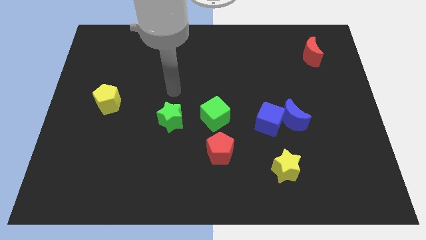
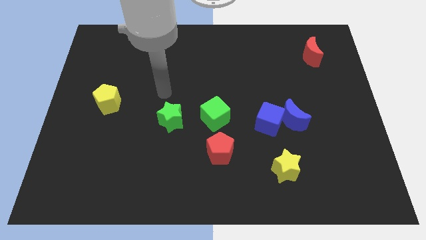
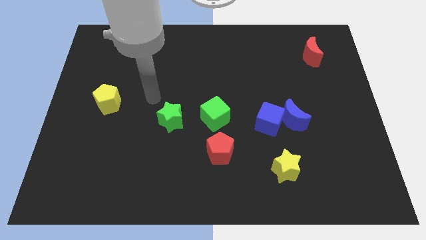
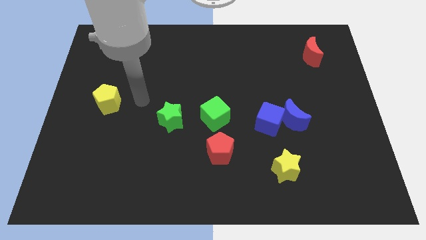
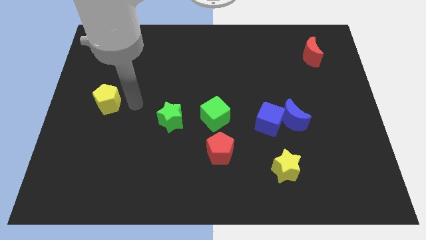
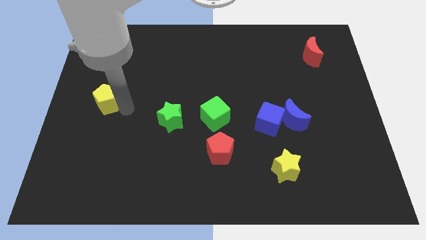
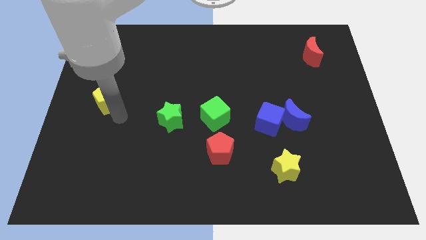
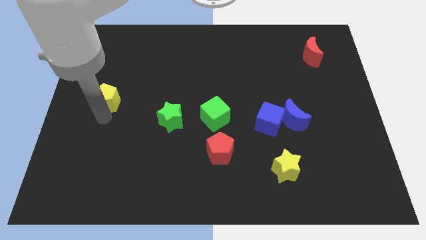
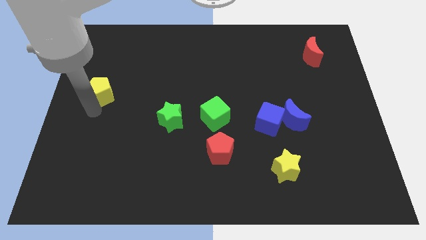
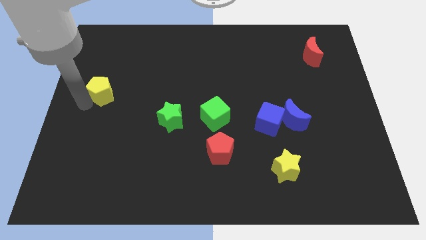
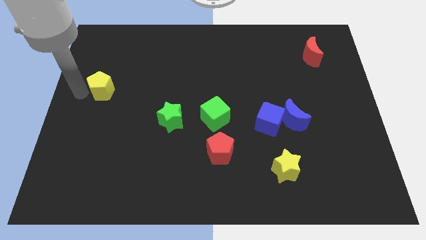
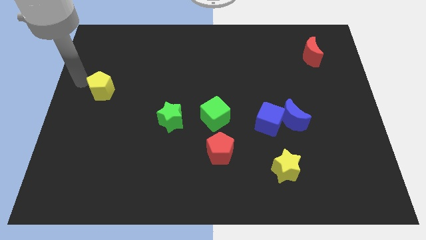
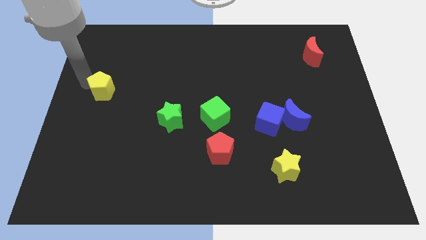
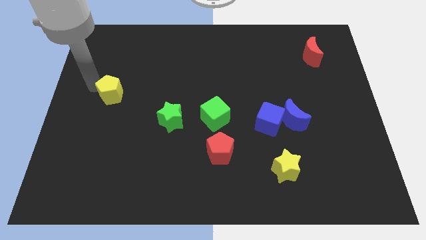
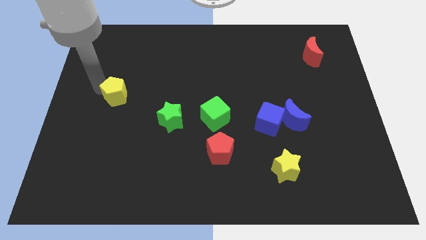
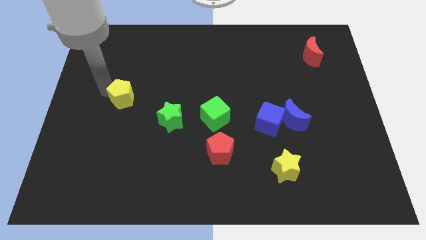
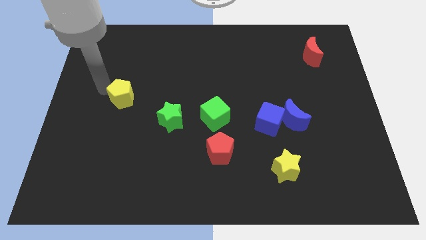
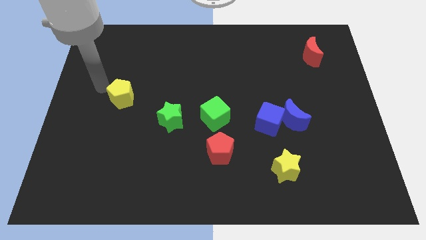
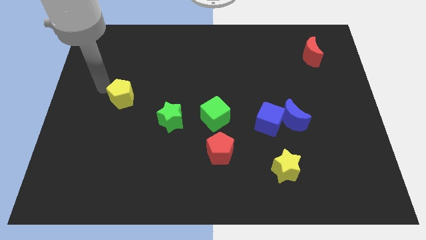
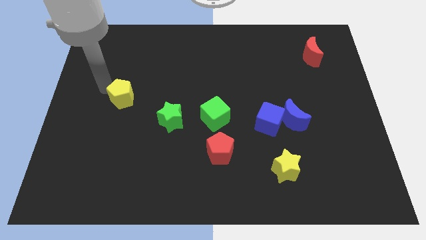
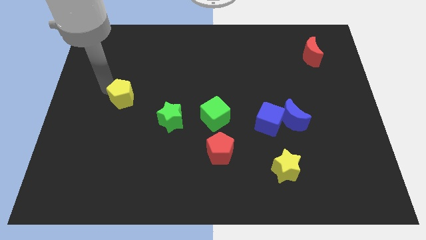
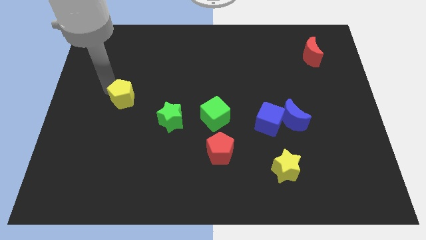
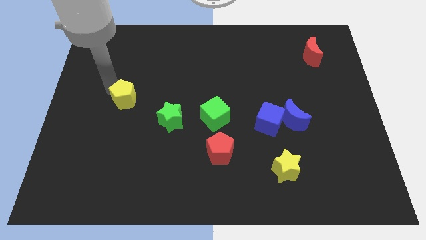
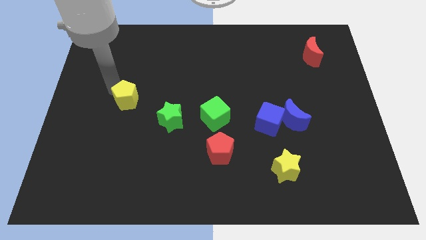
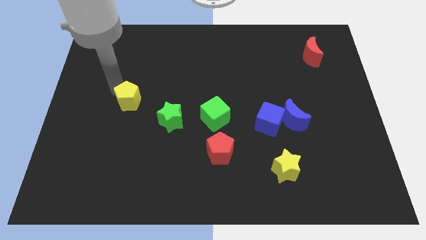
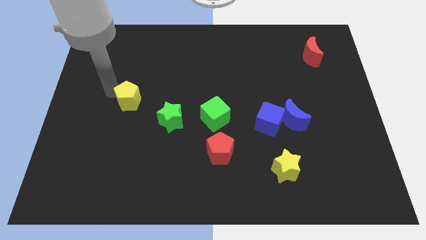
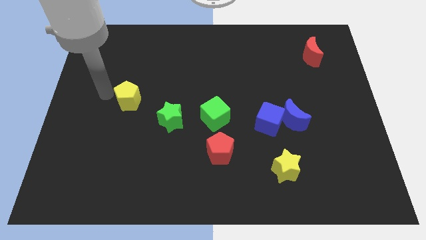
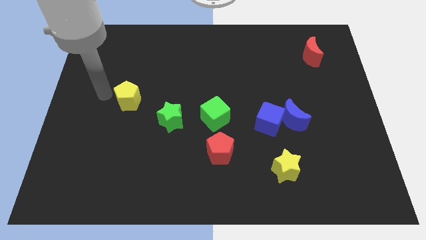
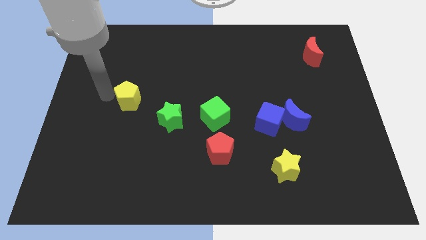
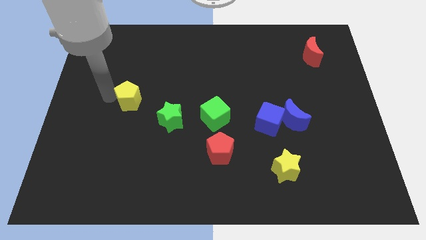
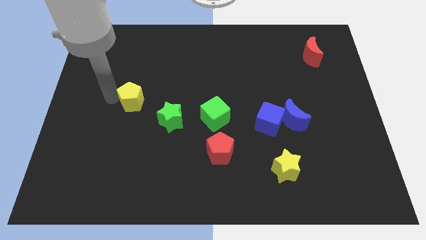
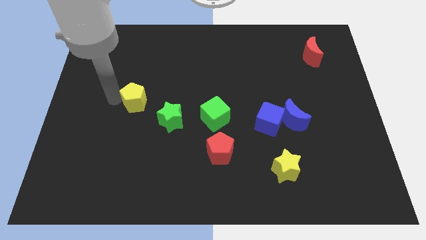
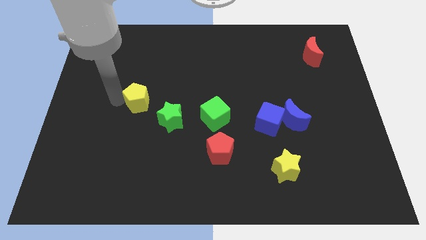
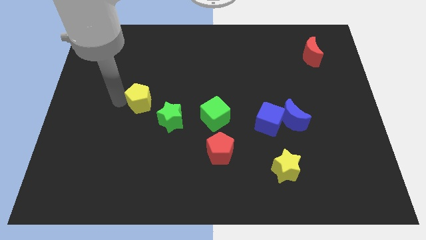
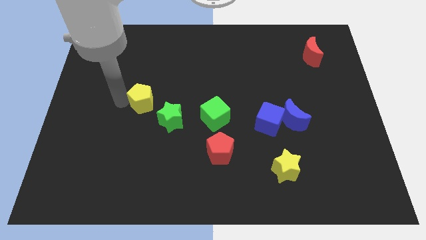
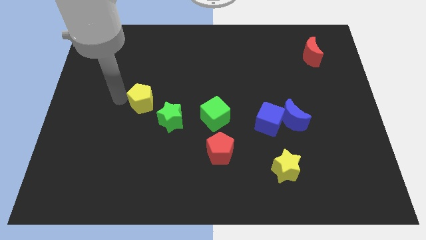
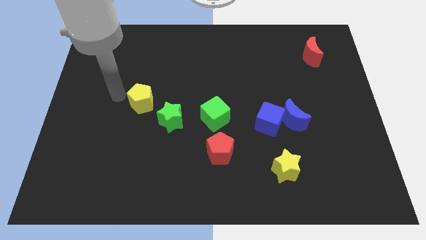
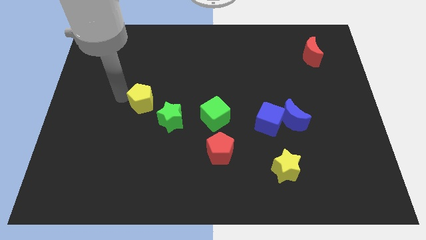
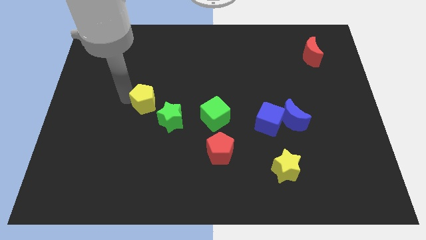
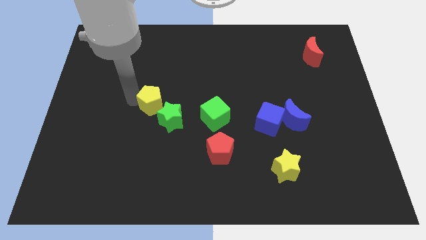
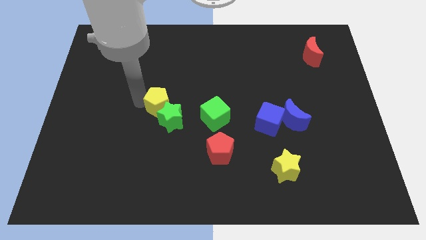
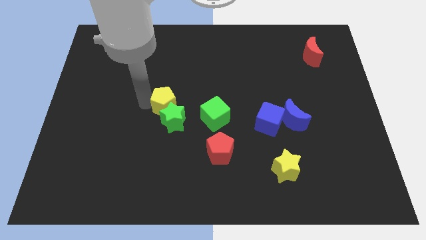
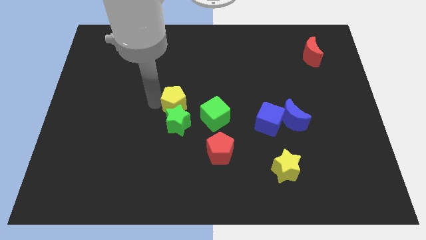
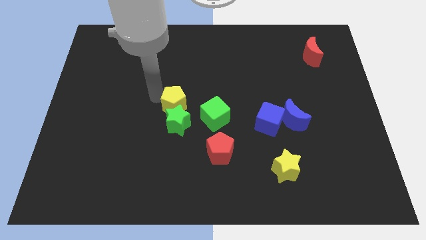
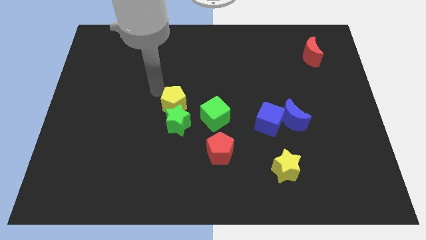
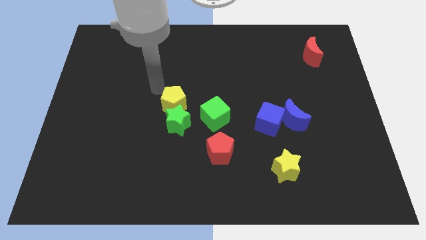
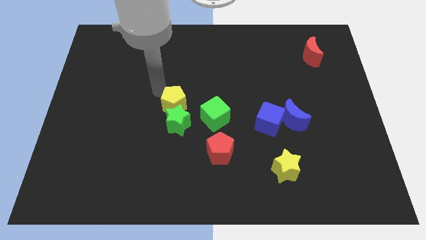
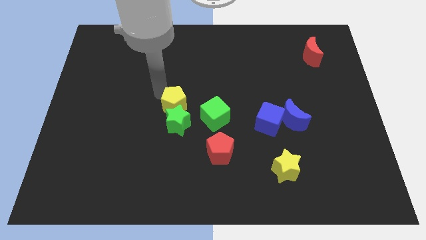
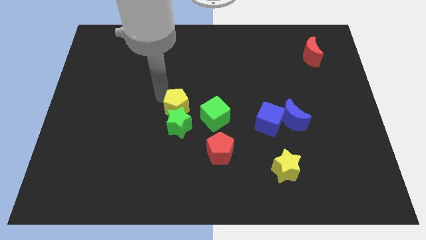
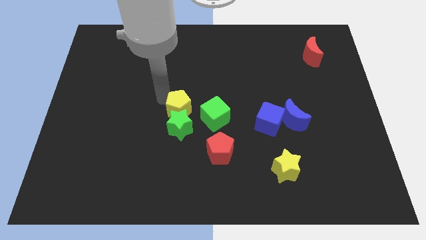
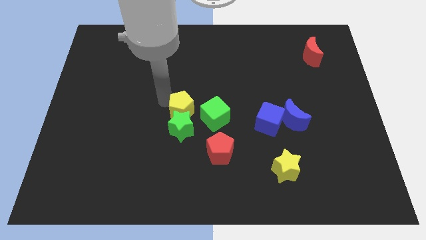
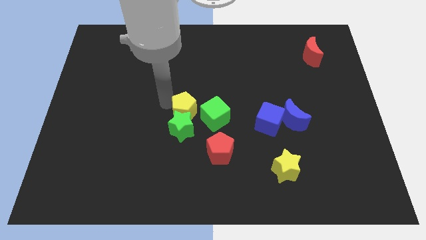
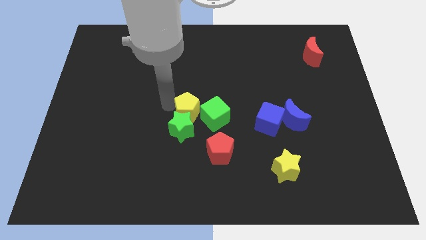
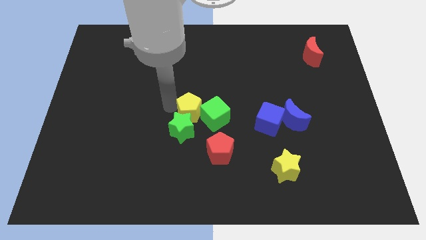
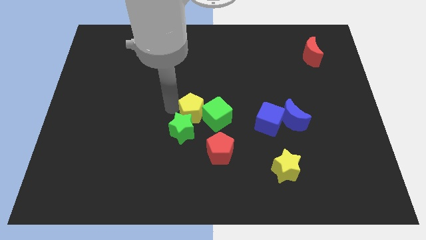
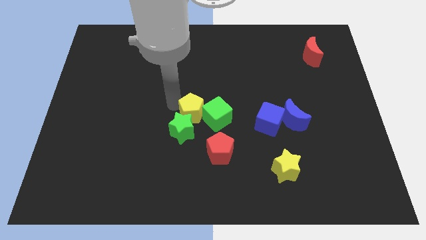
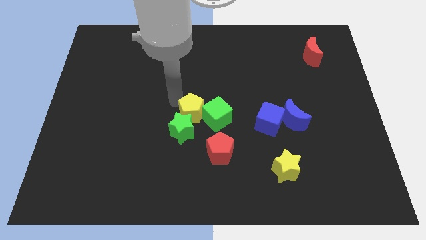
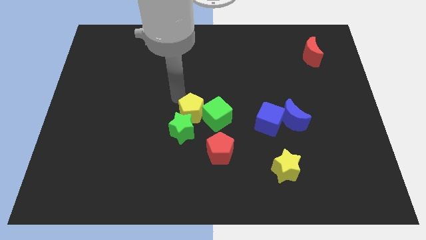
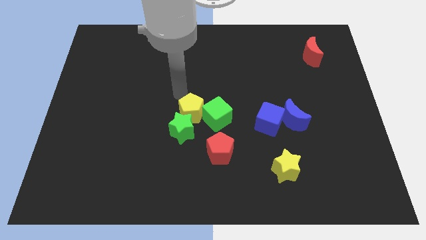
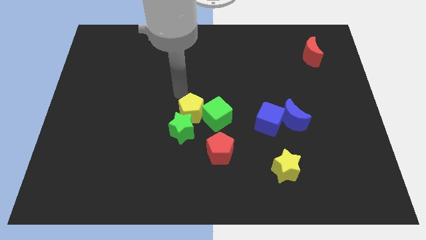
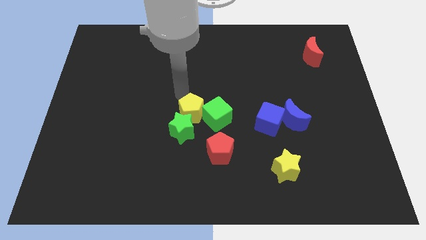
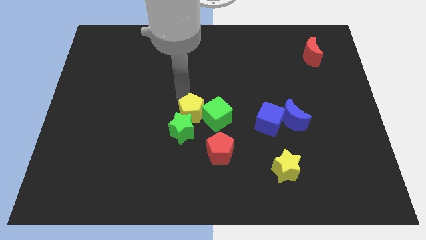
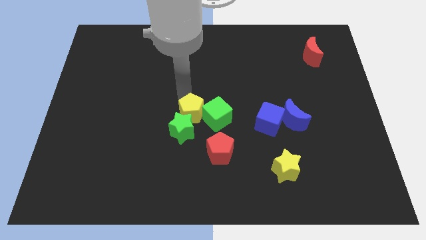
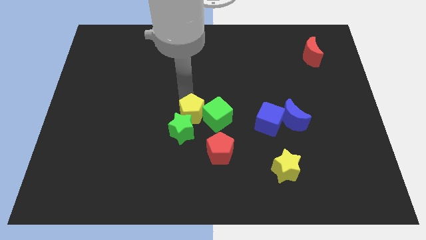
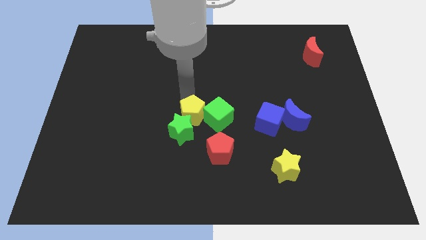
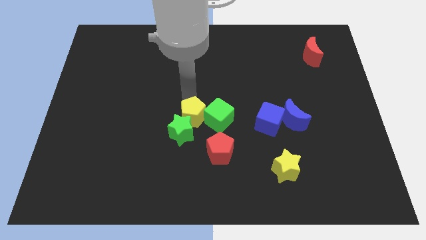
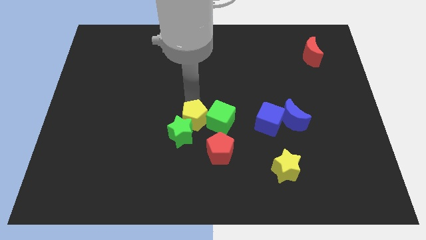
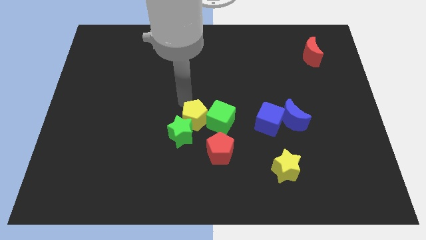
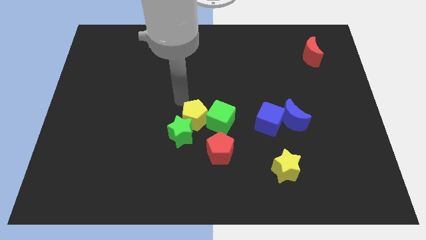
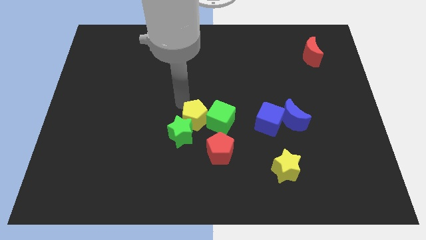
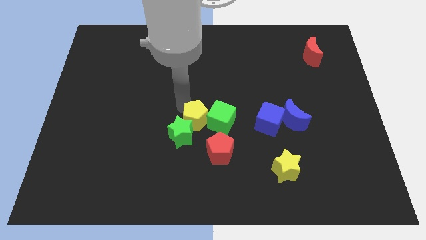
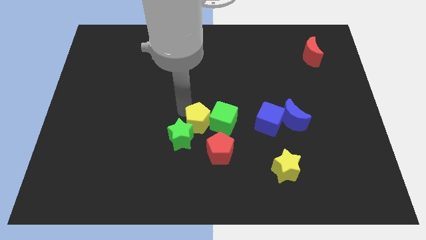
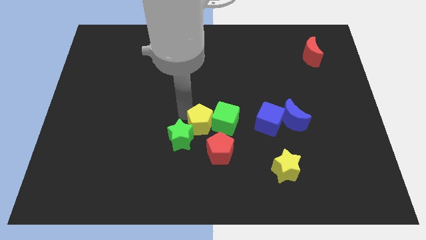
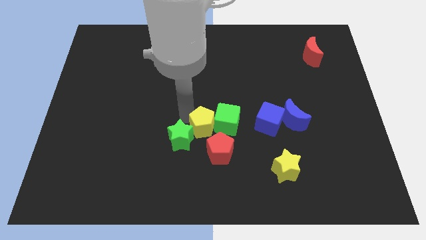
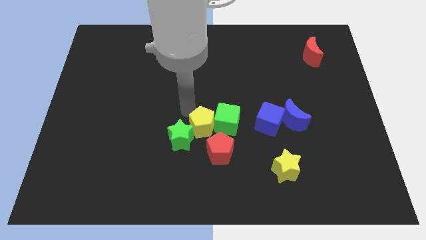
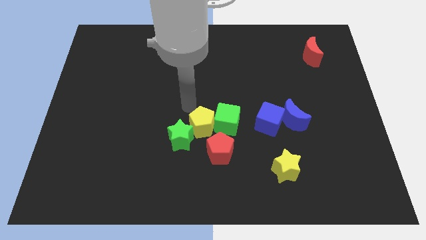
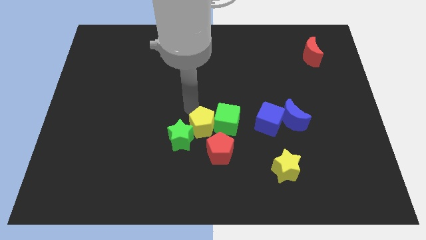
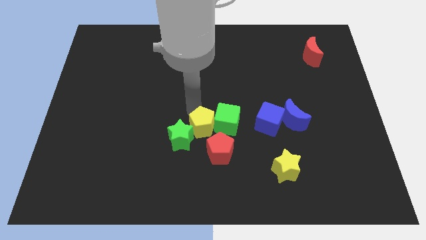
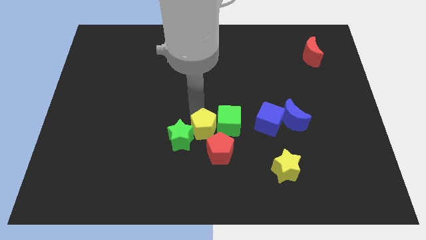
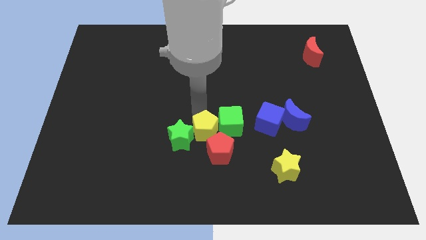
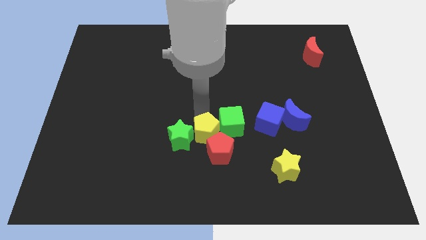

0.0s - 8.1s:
slide the yellow pentagon next to the red pentagon
